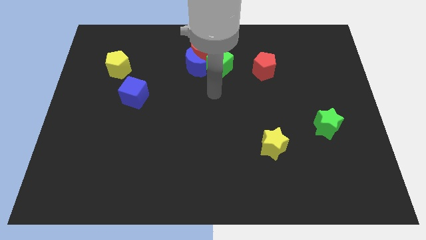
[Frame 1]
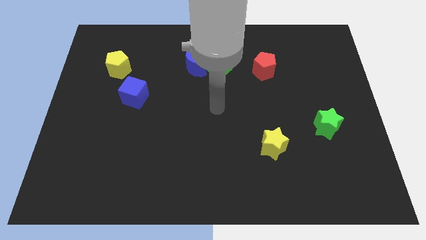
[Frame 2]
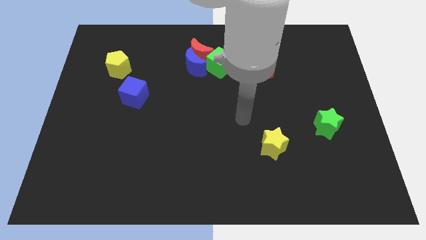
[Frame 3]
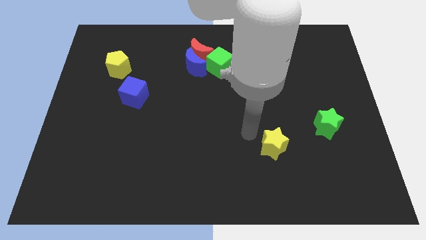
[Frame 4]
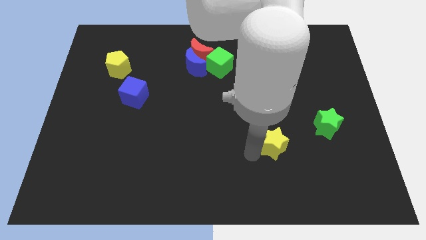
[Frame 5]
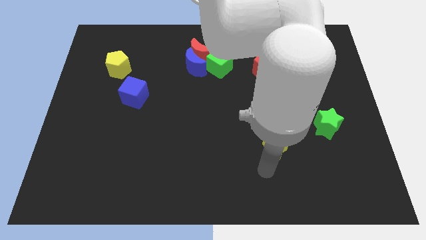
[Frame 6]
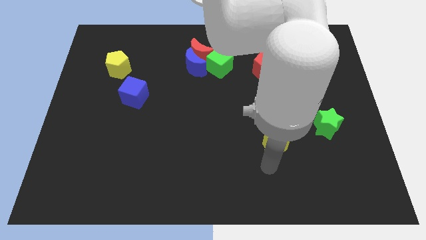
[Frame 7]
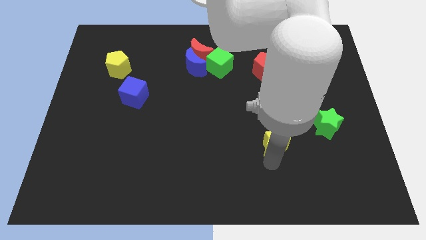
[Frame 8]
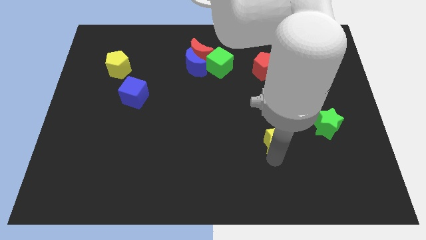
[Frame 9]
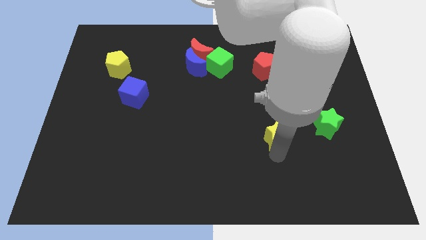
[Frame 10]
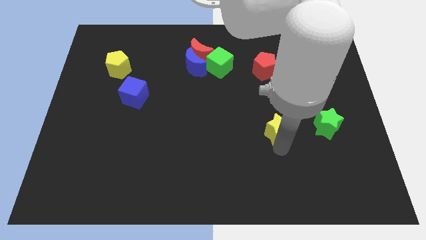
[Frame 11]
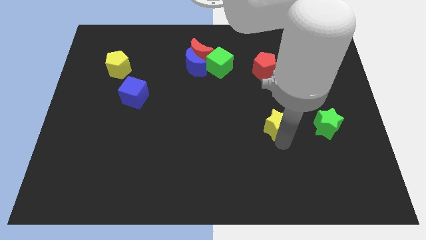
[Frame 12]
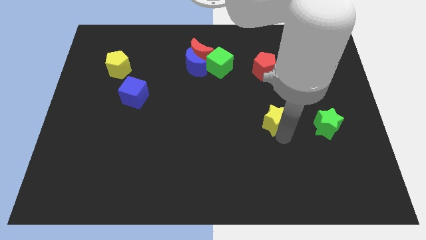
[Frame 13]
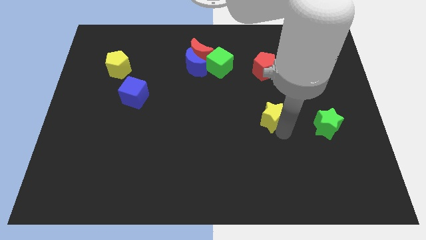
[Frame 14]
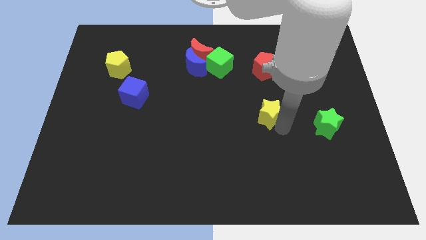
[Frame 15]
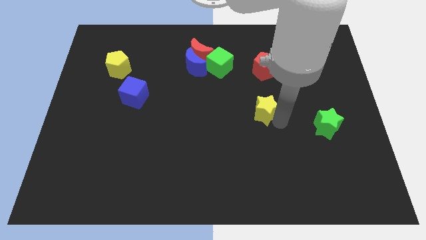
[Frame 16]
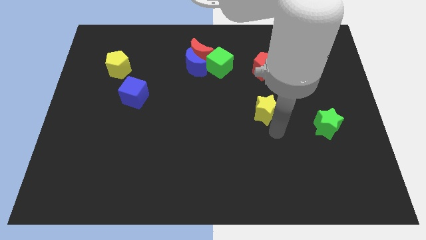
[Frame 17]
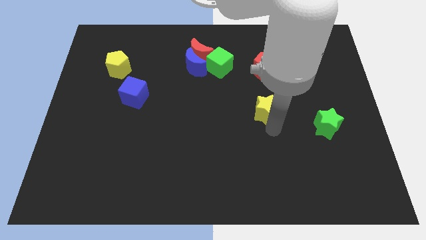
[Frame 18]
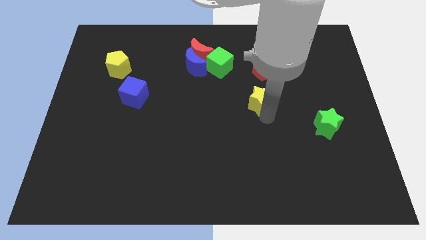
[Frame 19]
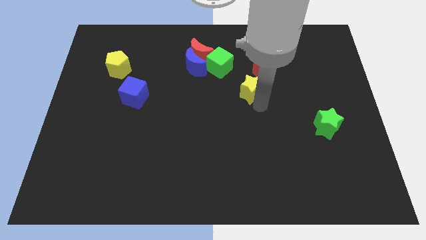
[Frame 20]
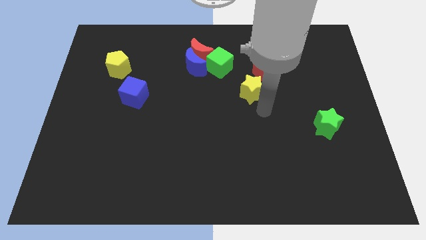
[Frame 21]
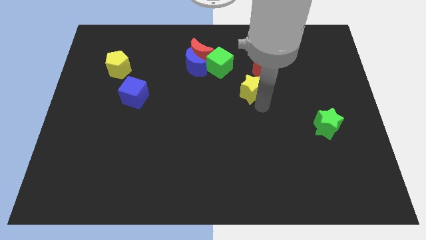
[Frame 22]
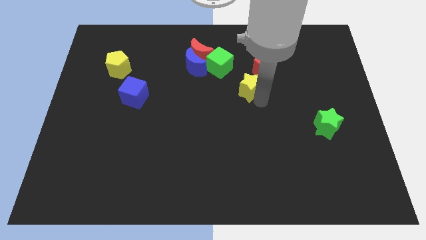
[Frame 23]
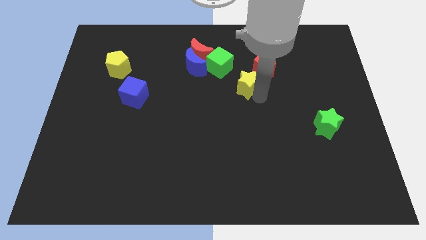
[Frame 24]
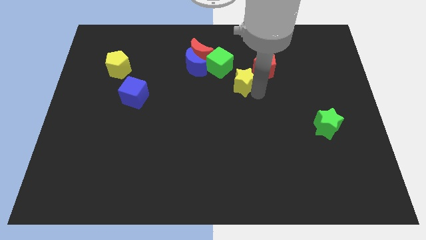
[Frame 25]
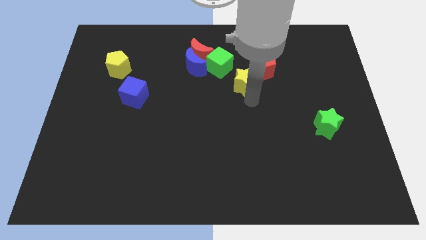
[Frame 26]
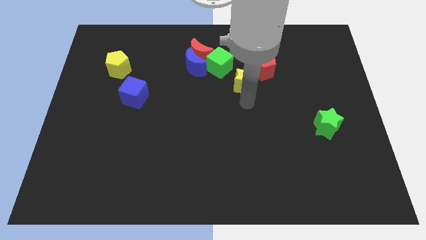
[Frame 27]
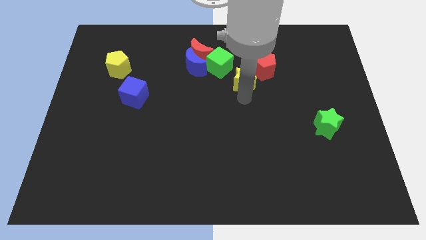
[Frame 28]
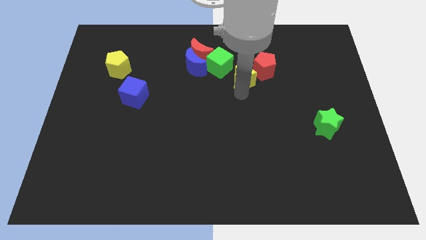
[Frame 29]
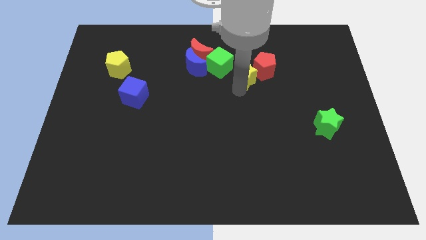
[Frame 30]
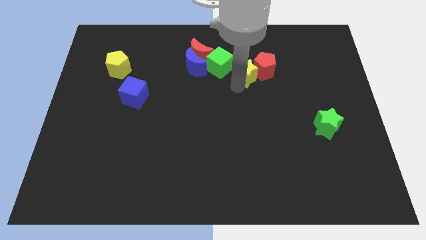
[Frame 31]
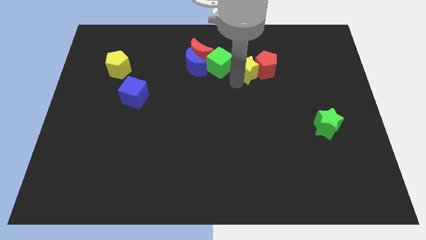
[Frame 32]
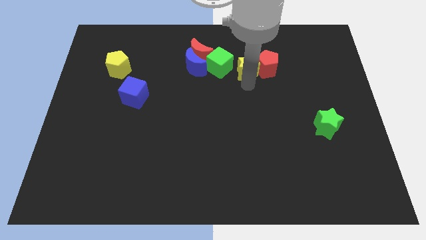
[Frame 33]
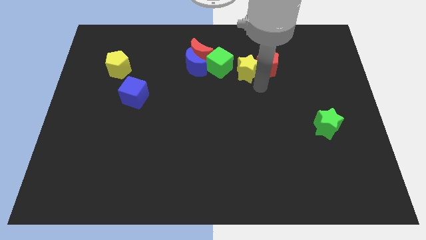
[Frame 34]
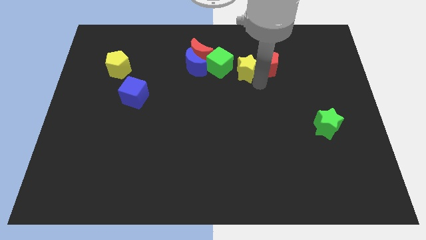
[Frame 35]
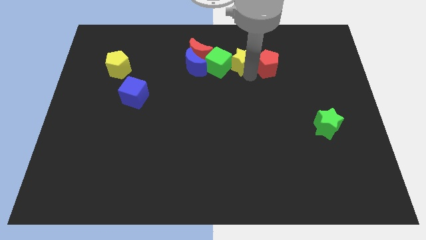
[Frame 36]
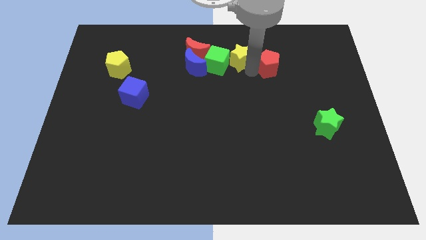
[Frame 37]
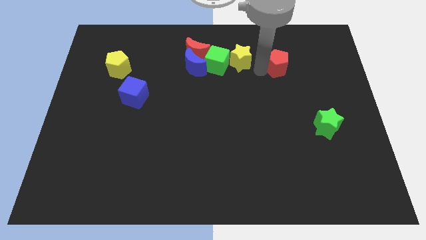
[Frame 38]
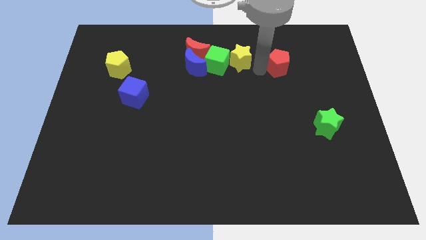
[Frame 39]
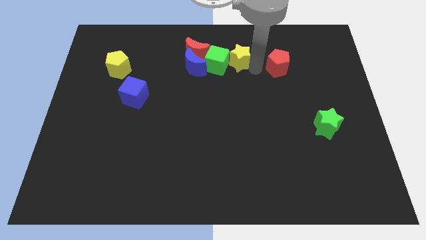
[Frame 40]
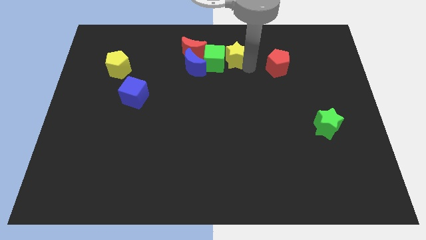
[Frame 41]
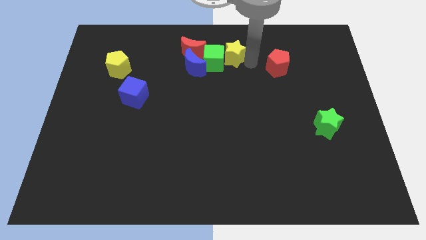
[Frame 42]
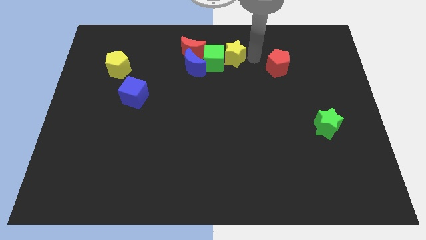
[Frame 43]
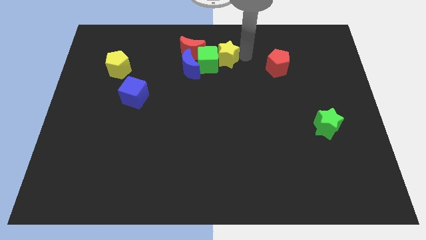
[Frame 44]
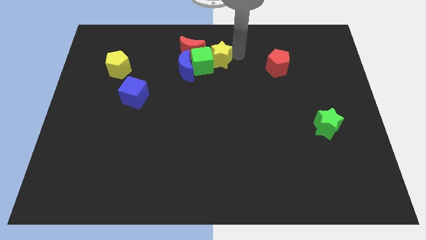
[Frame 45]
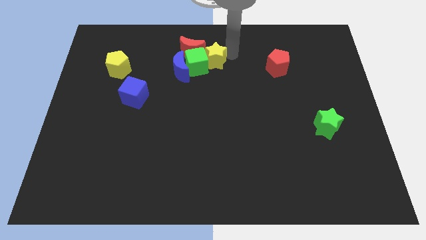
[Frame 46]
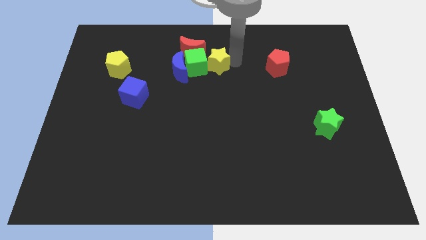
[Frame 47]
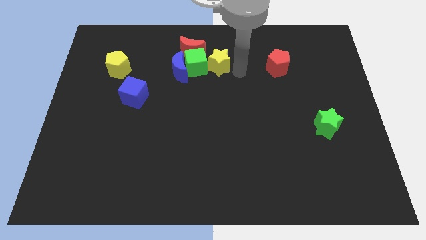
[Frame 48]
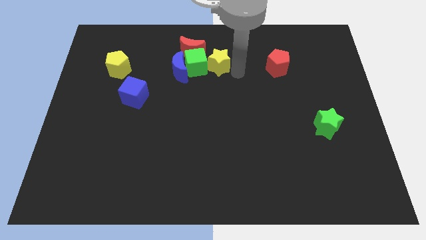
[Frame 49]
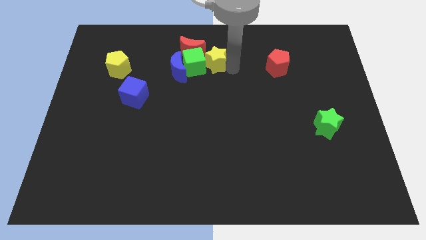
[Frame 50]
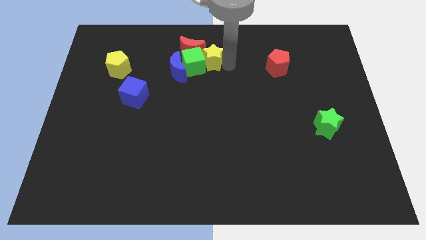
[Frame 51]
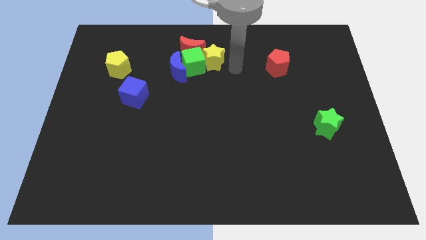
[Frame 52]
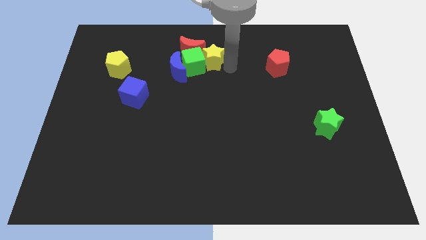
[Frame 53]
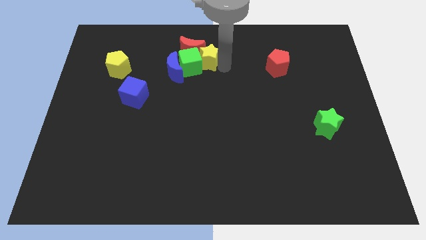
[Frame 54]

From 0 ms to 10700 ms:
push the yellow star towards the red moon

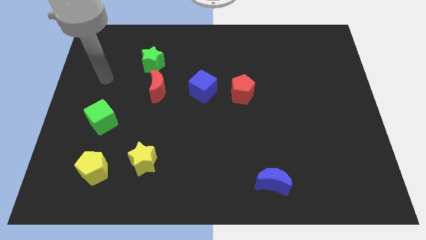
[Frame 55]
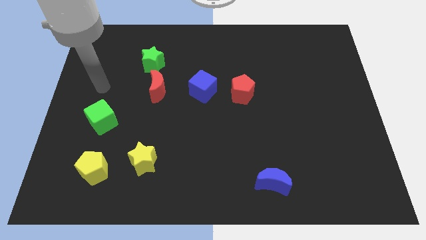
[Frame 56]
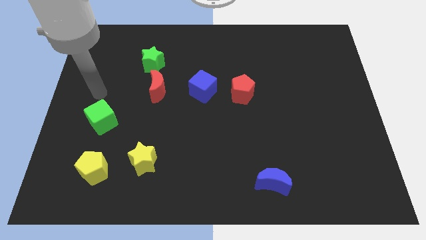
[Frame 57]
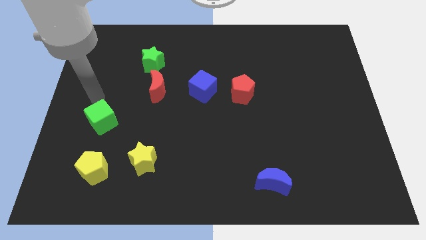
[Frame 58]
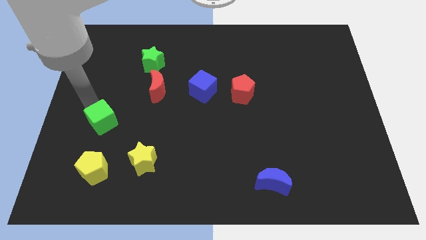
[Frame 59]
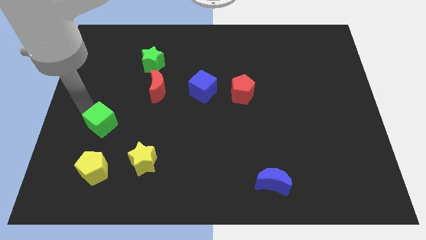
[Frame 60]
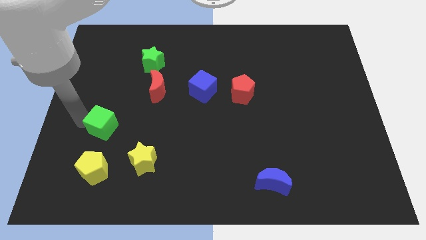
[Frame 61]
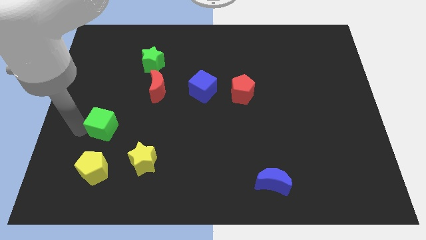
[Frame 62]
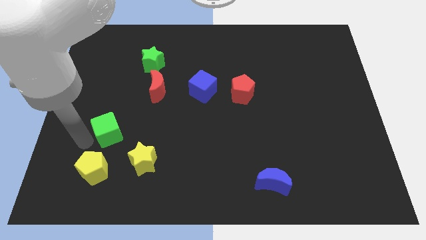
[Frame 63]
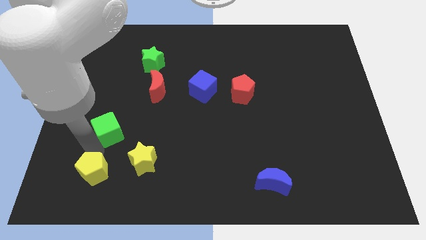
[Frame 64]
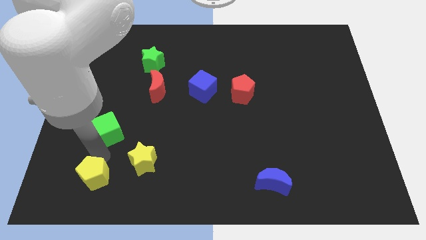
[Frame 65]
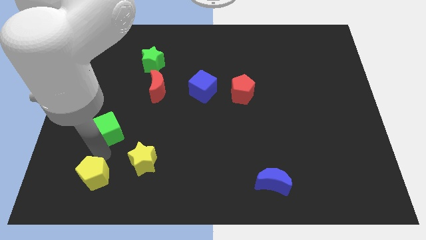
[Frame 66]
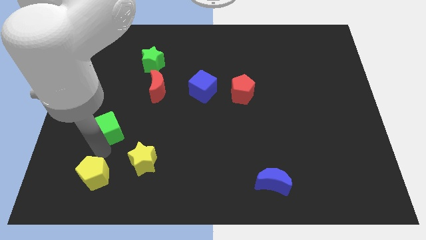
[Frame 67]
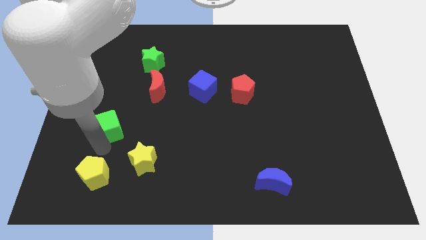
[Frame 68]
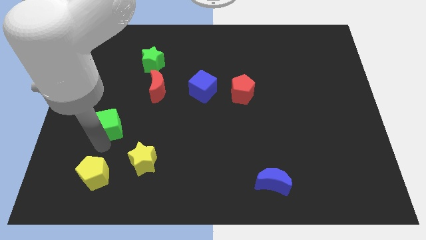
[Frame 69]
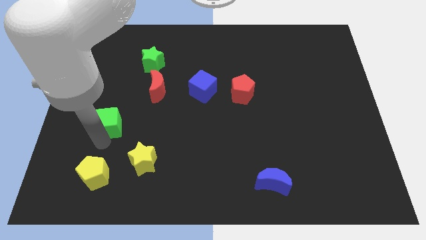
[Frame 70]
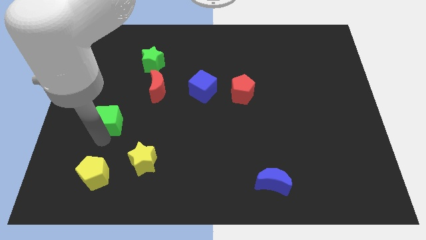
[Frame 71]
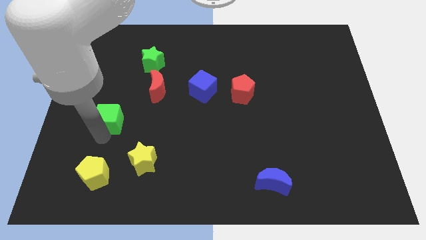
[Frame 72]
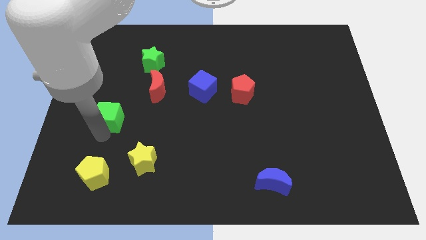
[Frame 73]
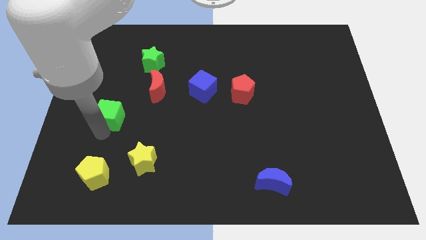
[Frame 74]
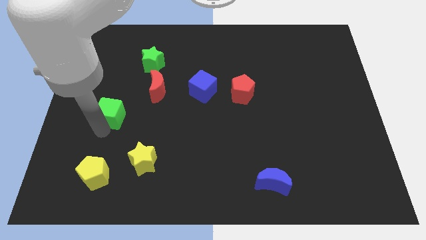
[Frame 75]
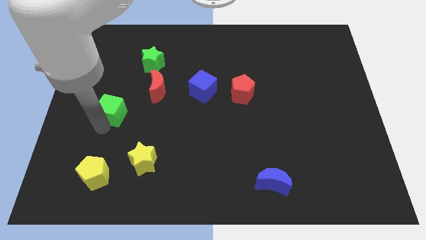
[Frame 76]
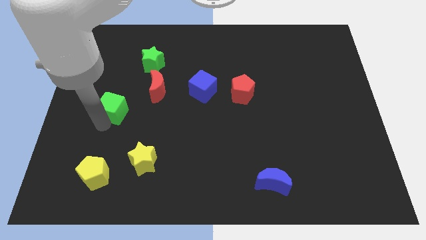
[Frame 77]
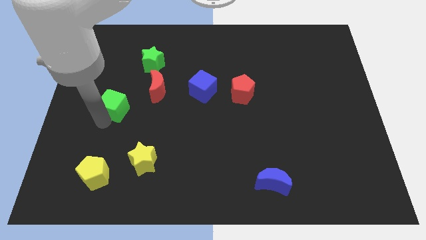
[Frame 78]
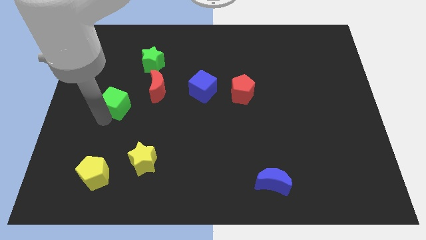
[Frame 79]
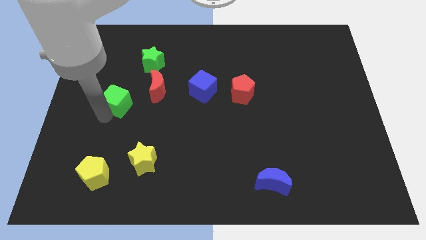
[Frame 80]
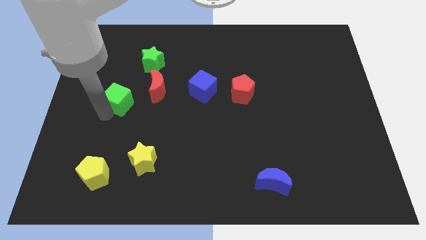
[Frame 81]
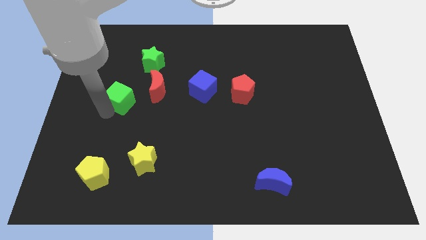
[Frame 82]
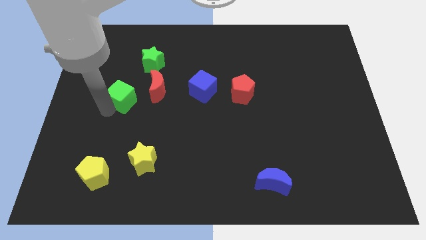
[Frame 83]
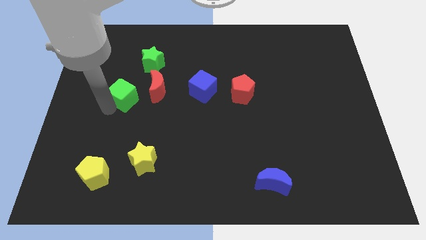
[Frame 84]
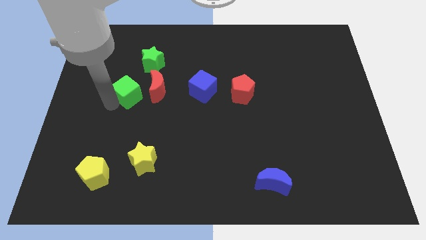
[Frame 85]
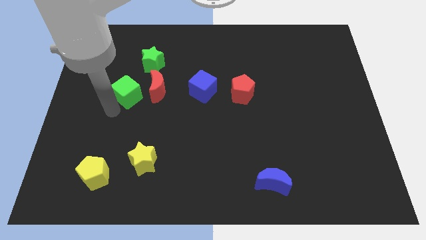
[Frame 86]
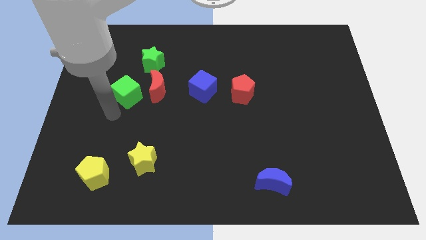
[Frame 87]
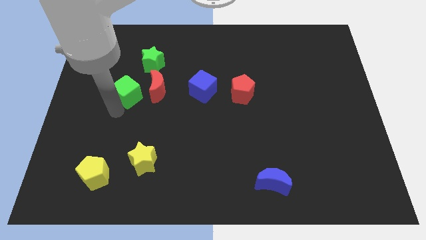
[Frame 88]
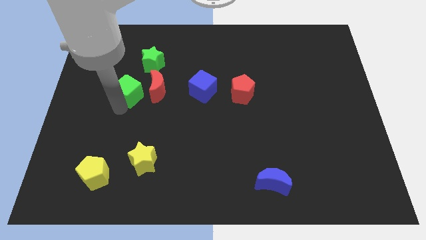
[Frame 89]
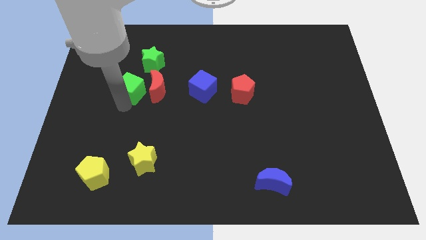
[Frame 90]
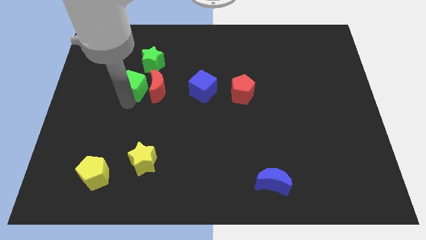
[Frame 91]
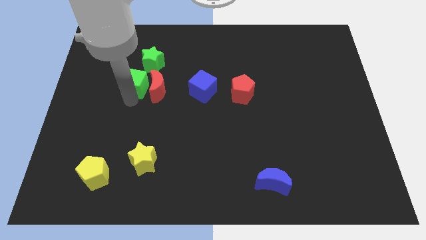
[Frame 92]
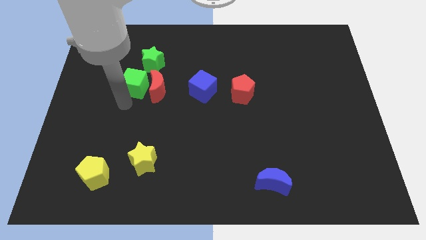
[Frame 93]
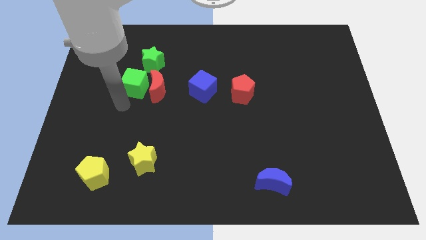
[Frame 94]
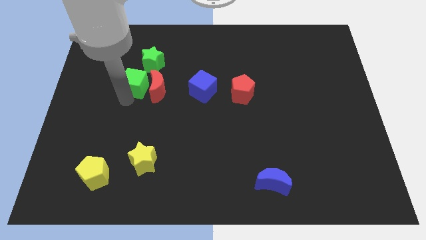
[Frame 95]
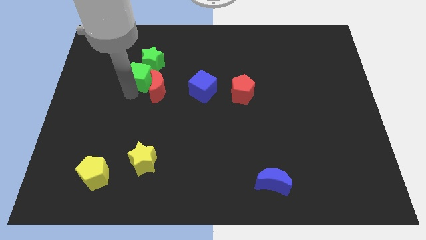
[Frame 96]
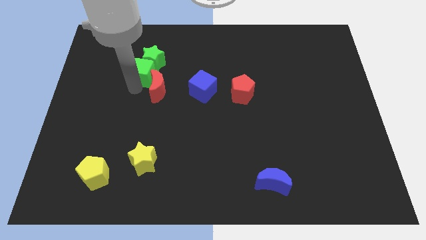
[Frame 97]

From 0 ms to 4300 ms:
move the green cube close to the green star
